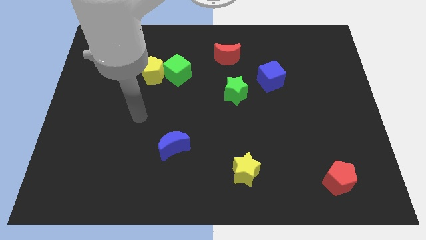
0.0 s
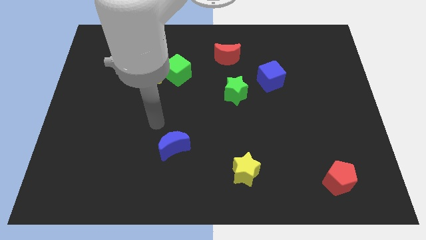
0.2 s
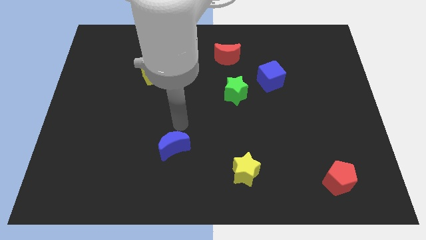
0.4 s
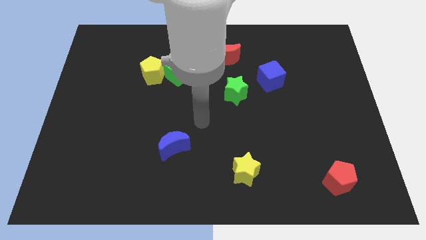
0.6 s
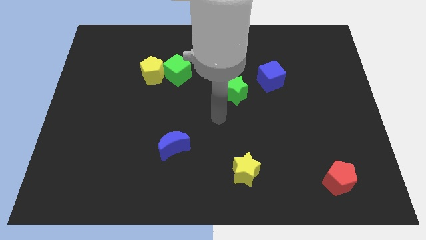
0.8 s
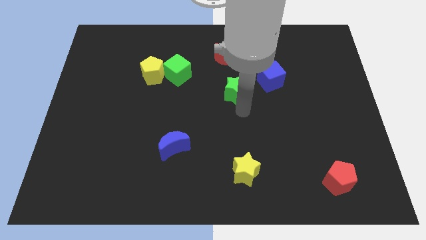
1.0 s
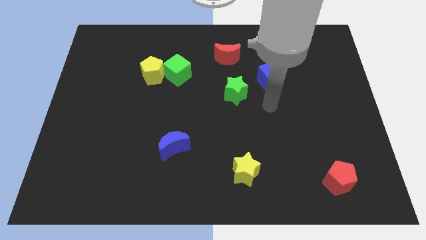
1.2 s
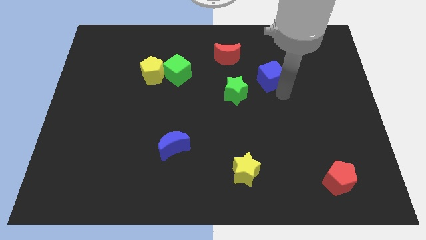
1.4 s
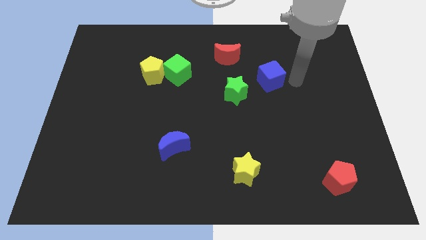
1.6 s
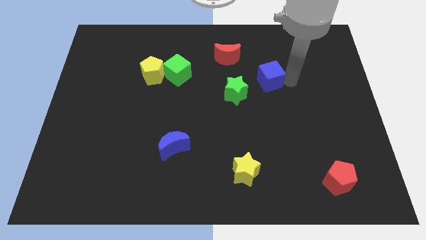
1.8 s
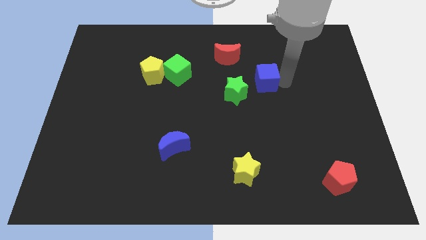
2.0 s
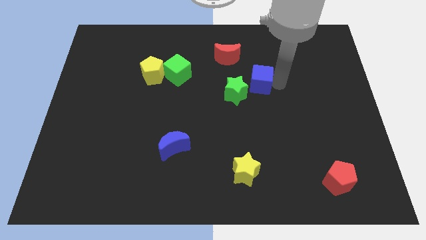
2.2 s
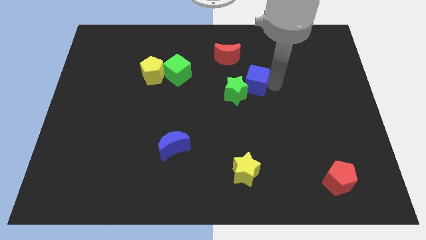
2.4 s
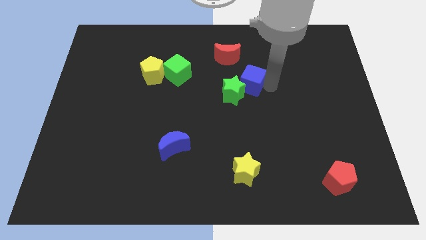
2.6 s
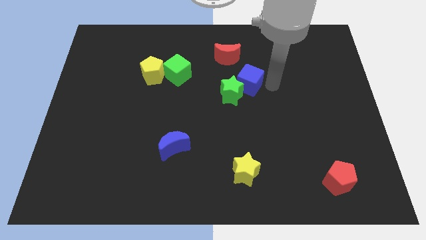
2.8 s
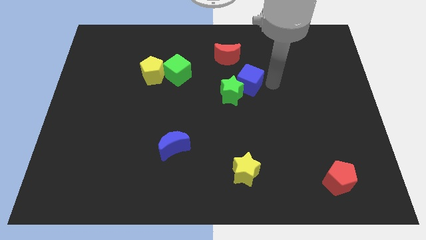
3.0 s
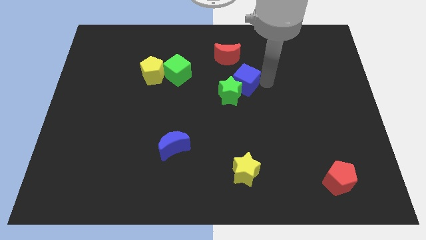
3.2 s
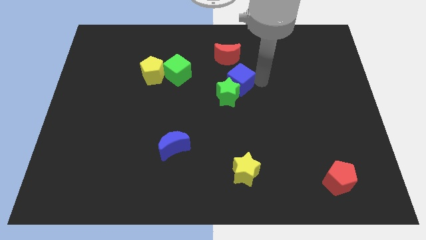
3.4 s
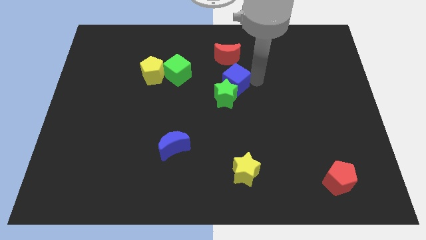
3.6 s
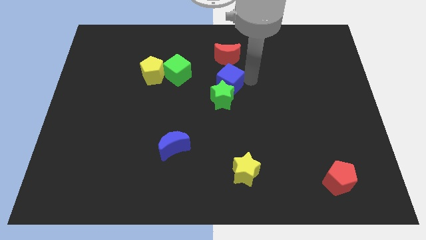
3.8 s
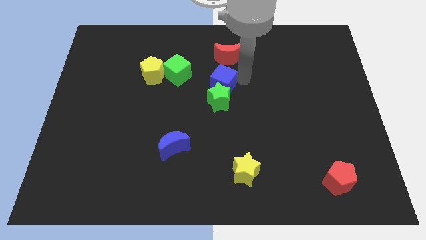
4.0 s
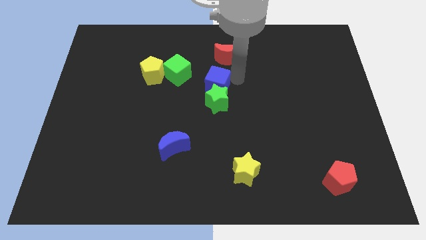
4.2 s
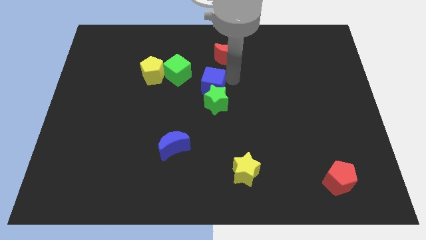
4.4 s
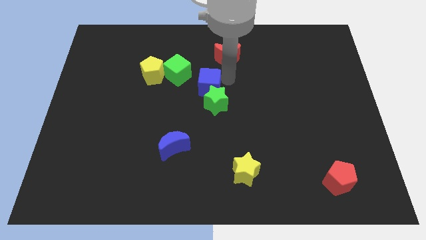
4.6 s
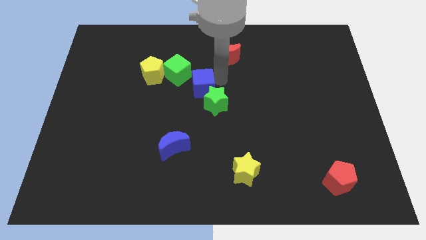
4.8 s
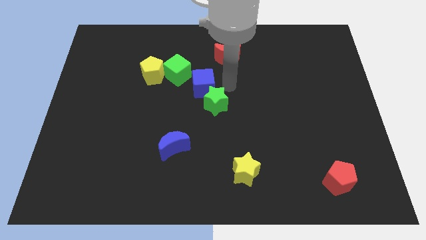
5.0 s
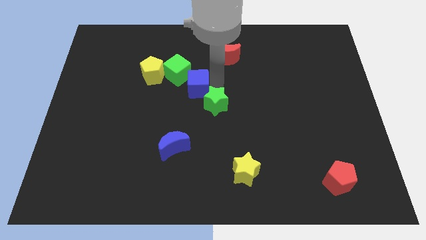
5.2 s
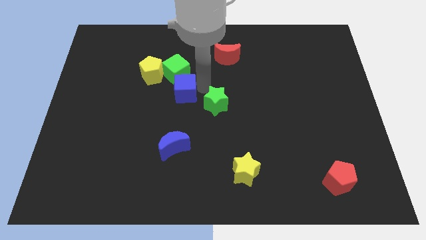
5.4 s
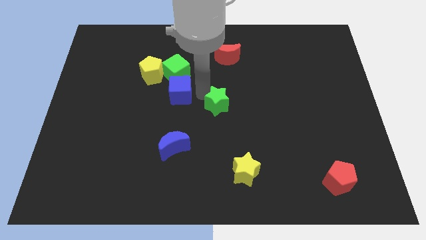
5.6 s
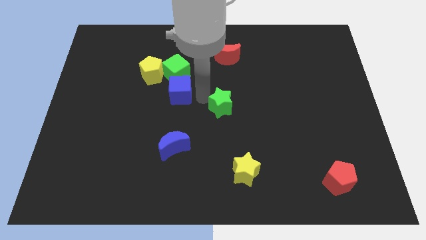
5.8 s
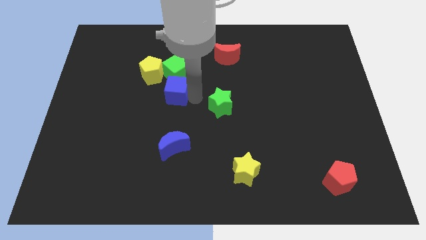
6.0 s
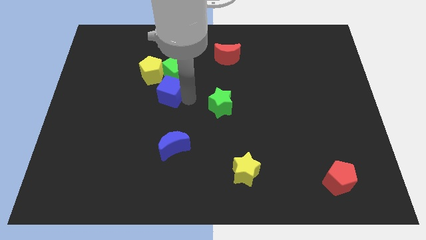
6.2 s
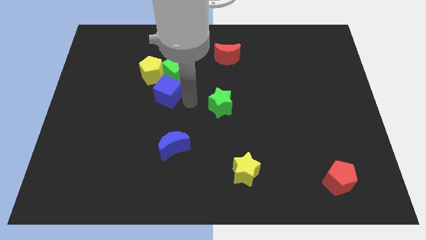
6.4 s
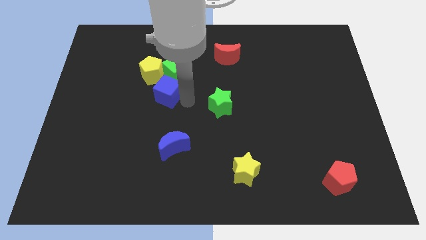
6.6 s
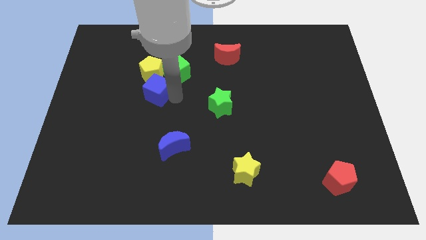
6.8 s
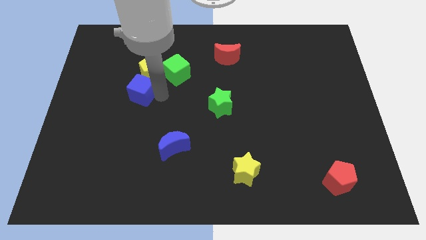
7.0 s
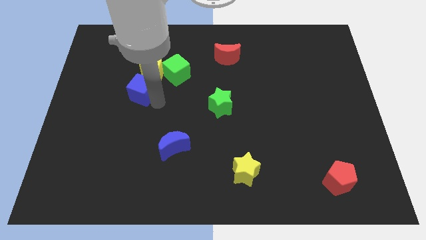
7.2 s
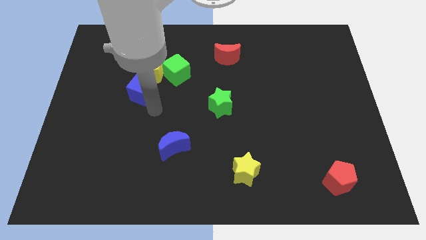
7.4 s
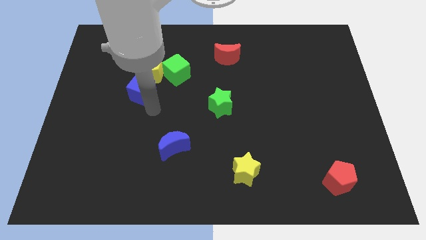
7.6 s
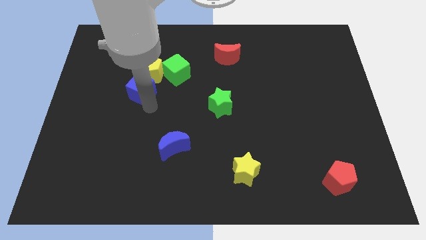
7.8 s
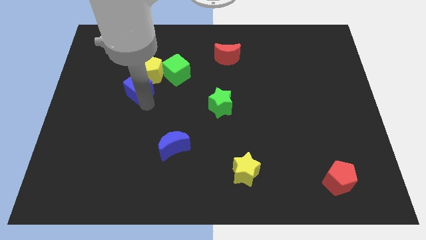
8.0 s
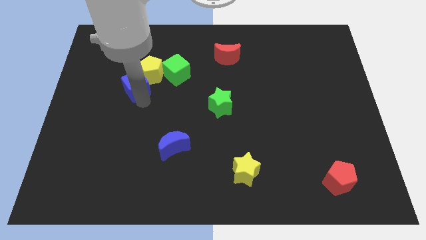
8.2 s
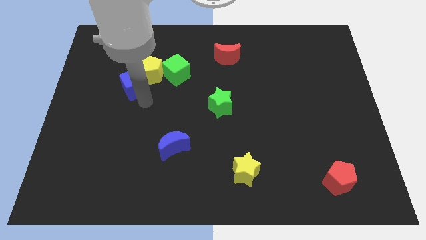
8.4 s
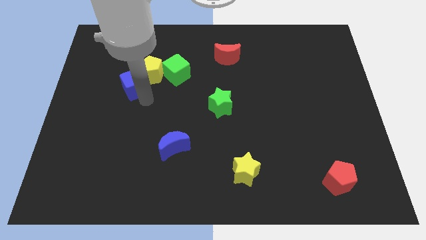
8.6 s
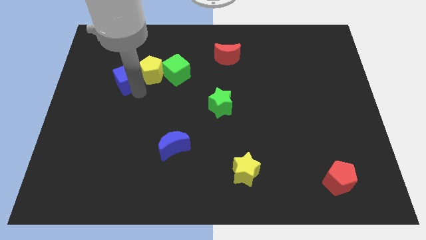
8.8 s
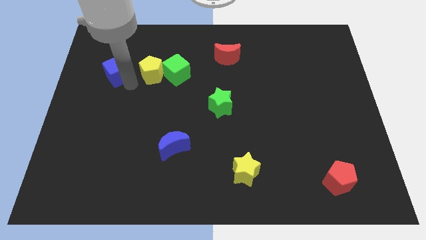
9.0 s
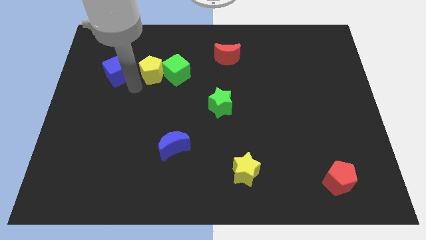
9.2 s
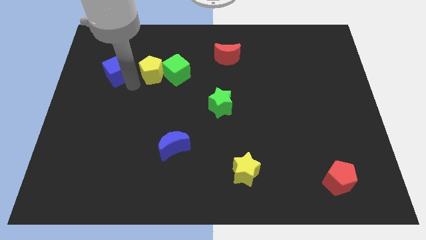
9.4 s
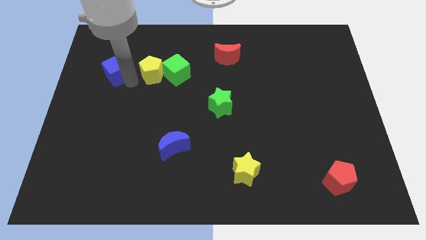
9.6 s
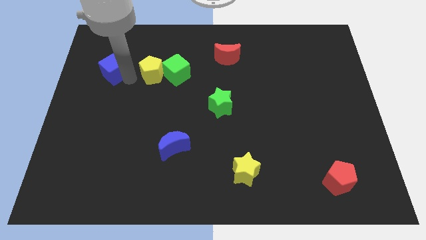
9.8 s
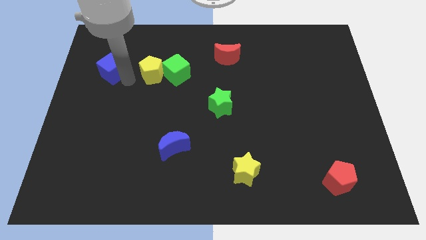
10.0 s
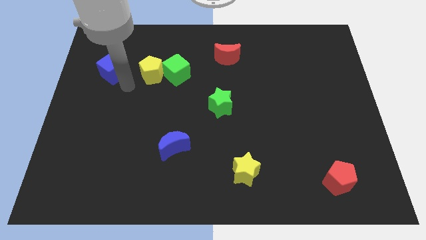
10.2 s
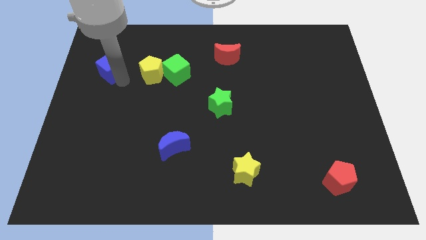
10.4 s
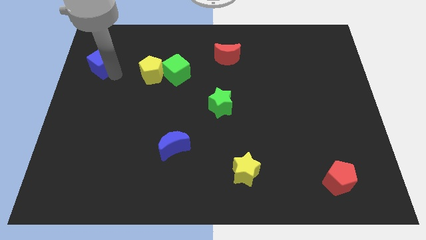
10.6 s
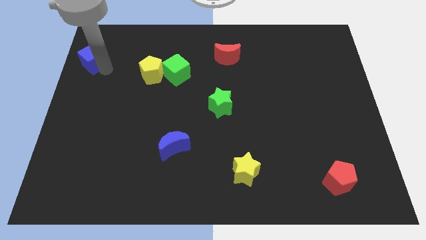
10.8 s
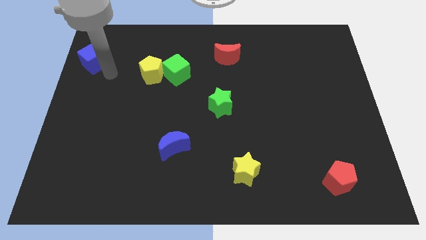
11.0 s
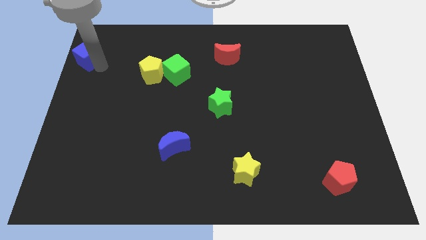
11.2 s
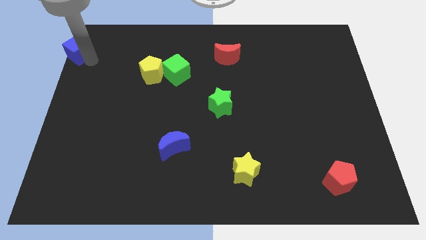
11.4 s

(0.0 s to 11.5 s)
put the blue cube to the upper left corner
